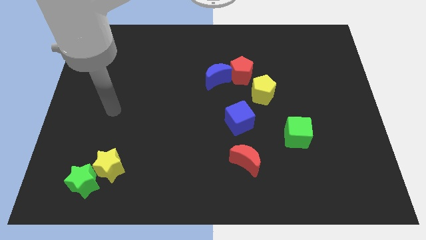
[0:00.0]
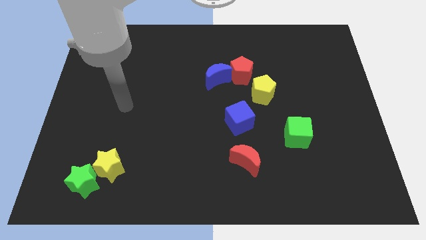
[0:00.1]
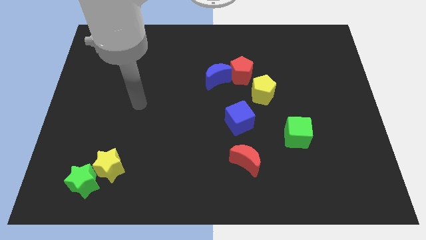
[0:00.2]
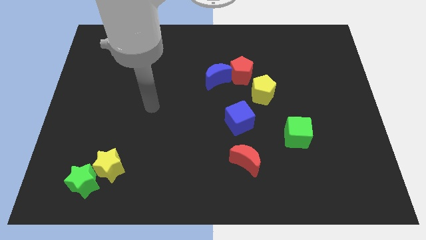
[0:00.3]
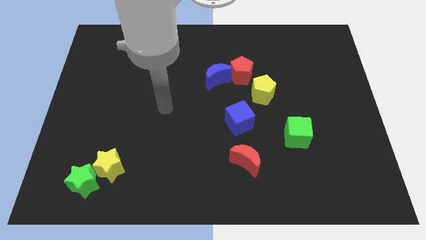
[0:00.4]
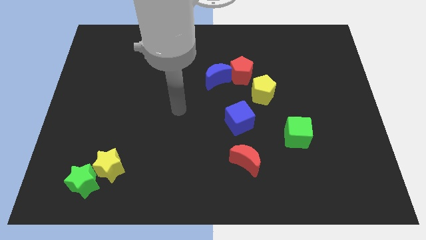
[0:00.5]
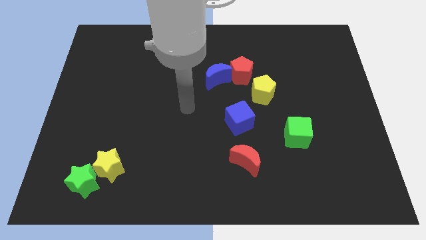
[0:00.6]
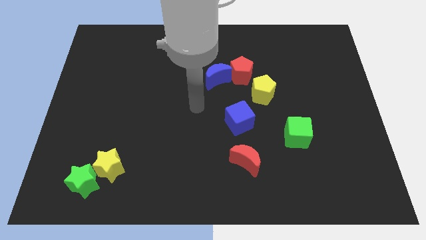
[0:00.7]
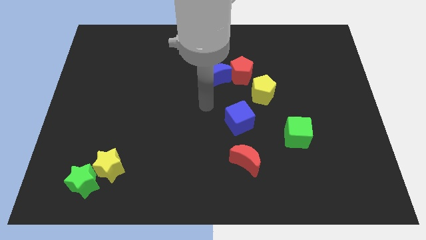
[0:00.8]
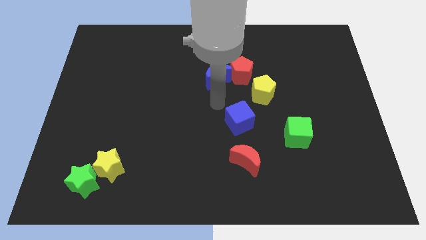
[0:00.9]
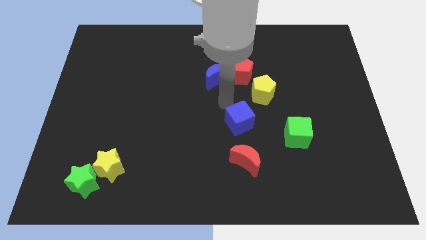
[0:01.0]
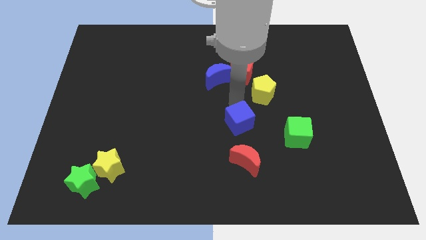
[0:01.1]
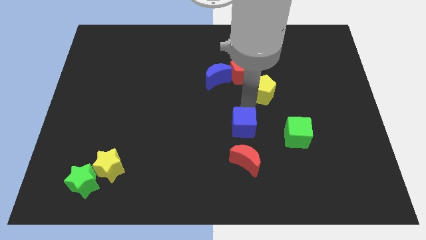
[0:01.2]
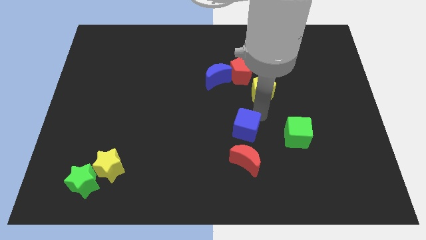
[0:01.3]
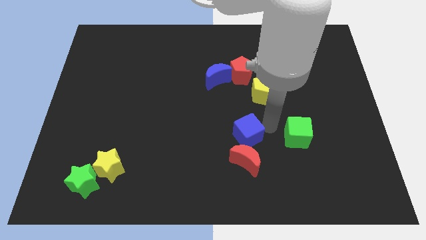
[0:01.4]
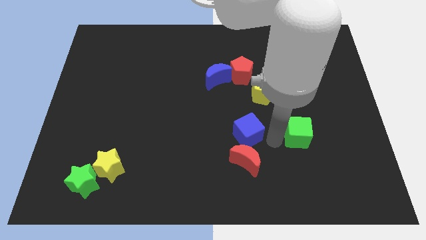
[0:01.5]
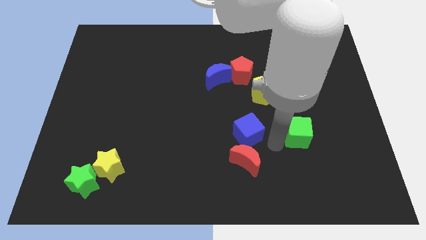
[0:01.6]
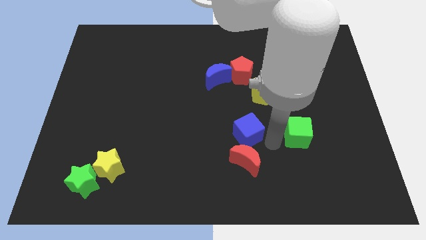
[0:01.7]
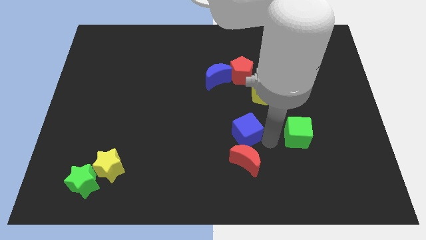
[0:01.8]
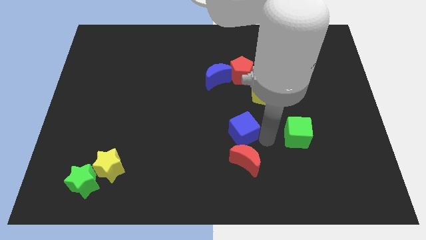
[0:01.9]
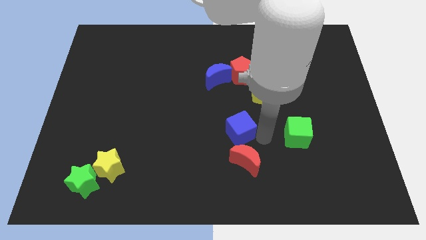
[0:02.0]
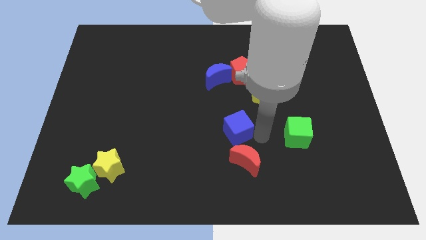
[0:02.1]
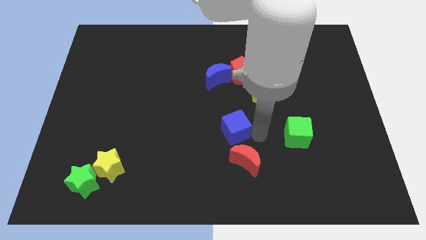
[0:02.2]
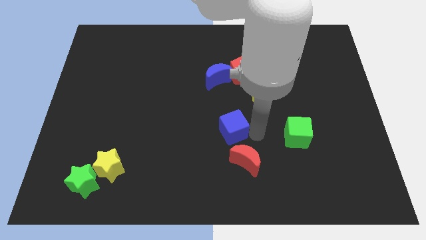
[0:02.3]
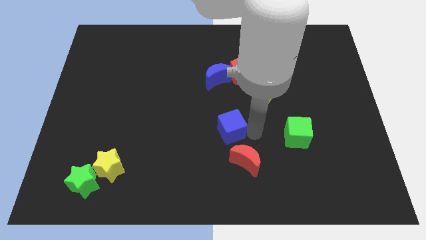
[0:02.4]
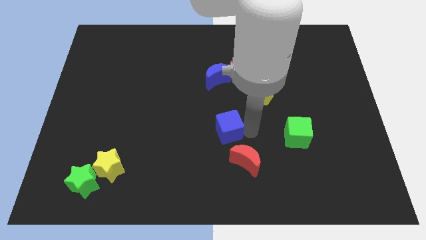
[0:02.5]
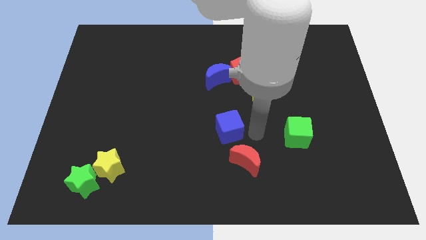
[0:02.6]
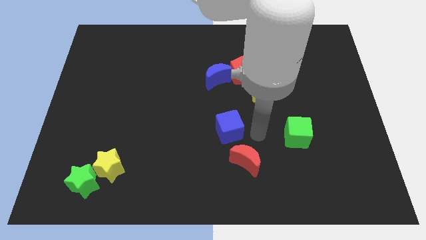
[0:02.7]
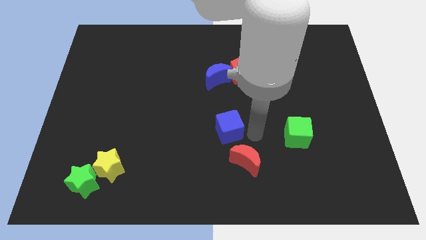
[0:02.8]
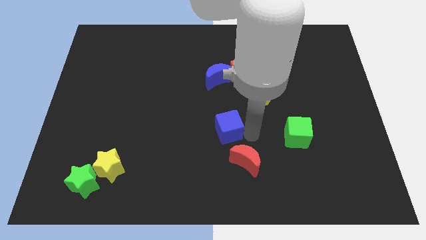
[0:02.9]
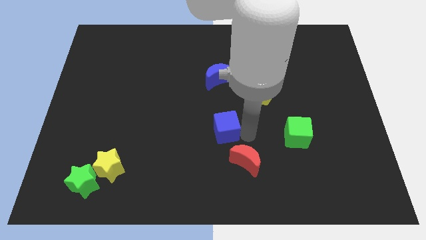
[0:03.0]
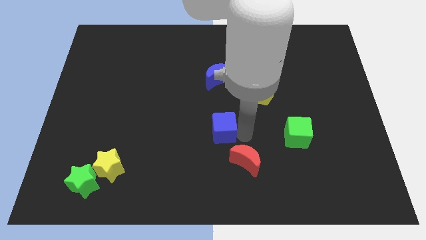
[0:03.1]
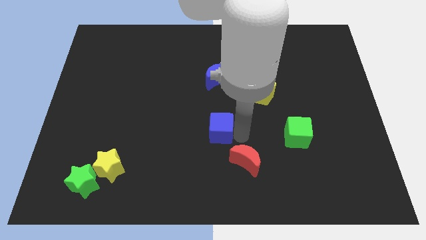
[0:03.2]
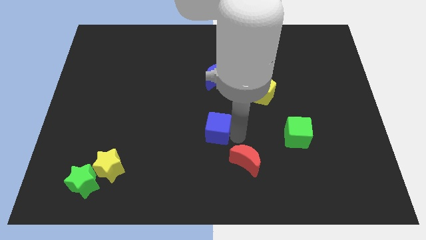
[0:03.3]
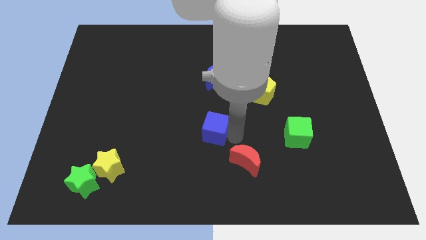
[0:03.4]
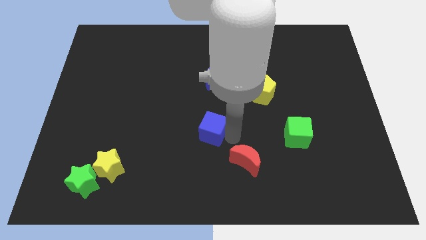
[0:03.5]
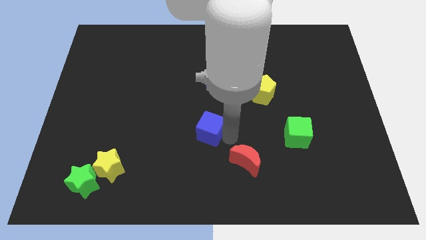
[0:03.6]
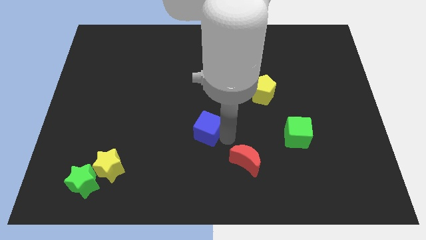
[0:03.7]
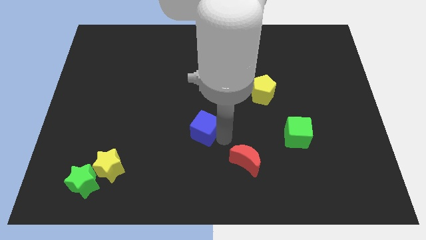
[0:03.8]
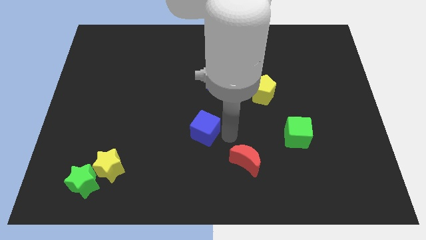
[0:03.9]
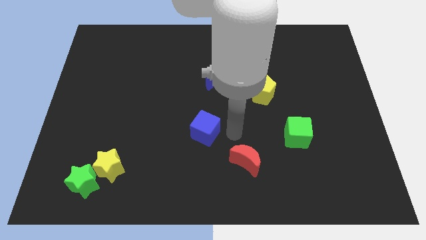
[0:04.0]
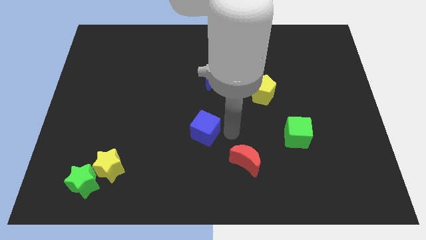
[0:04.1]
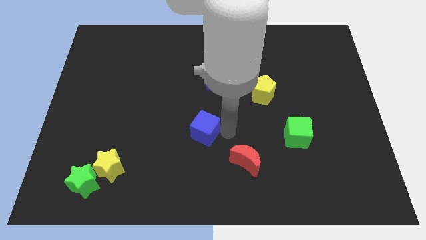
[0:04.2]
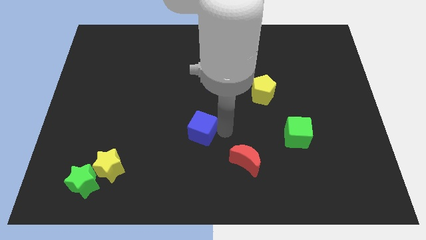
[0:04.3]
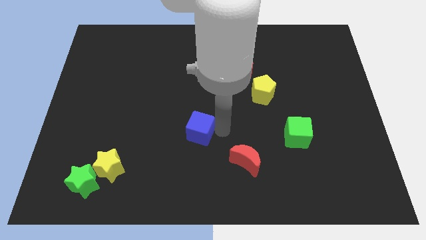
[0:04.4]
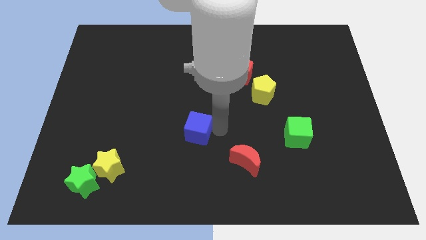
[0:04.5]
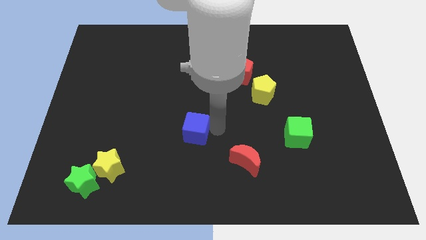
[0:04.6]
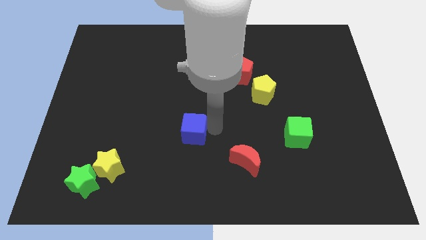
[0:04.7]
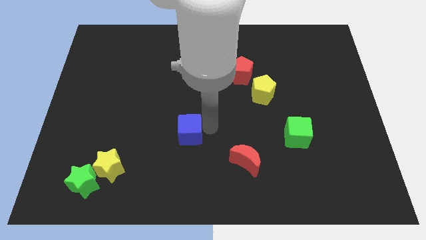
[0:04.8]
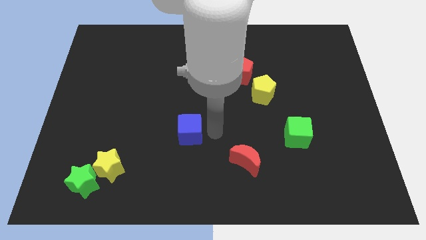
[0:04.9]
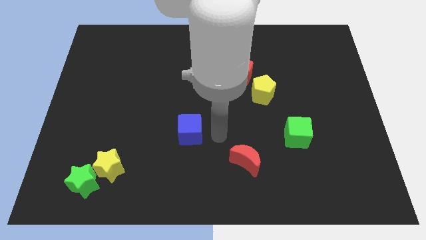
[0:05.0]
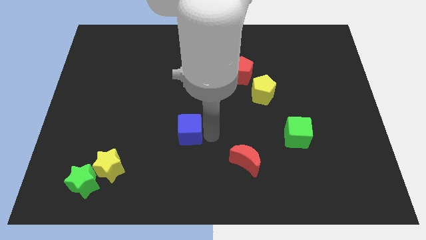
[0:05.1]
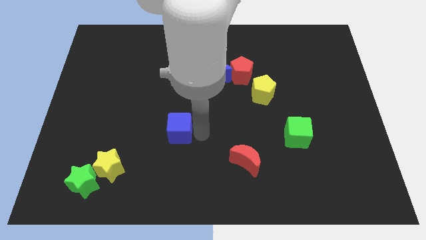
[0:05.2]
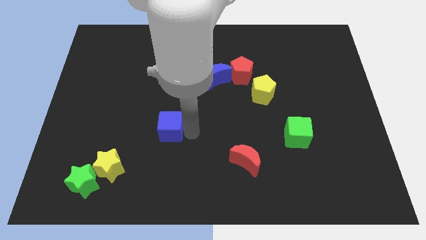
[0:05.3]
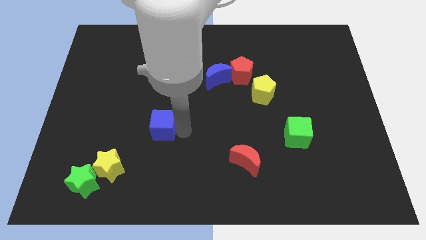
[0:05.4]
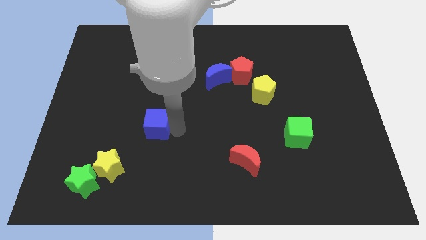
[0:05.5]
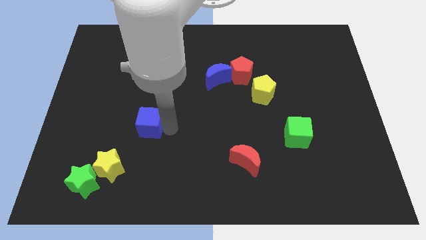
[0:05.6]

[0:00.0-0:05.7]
move the blue cube left

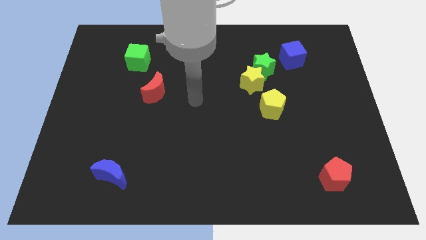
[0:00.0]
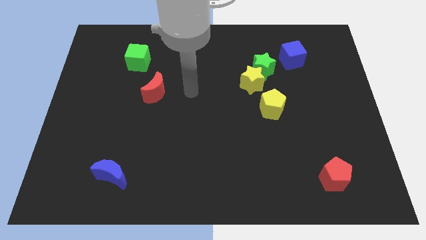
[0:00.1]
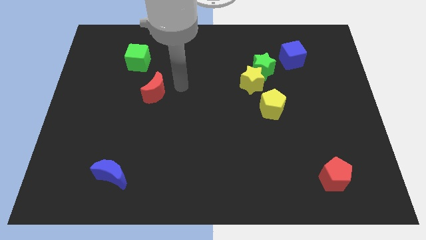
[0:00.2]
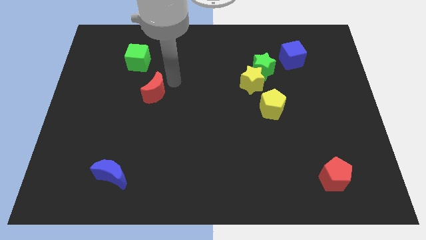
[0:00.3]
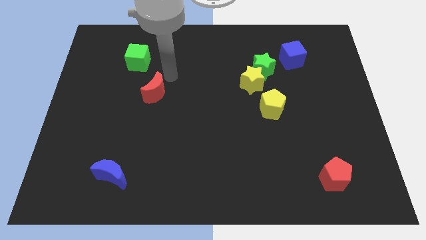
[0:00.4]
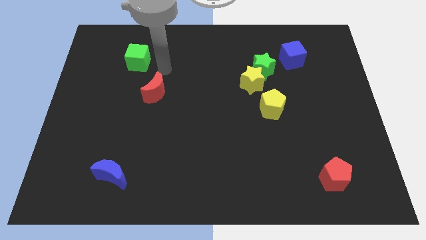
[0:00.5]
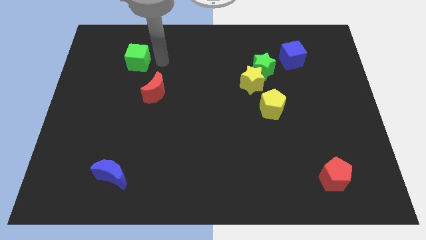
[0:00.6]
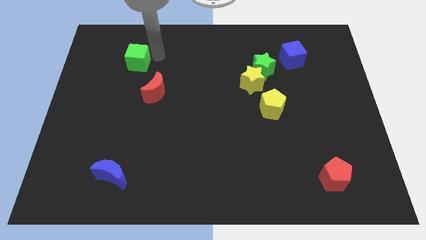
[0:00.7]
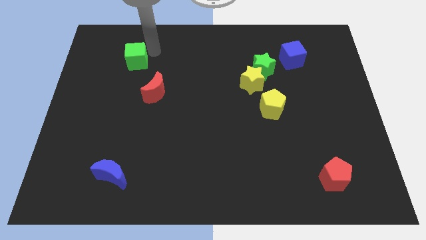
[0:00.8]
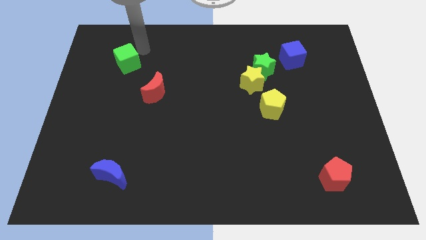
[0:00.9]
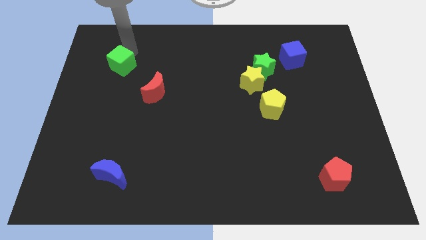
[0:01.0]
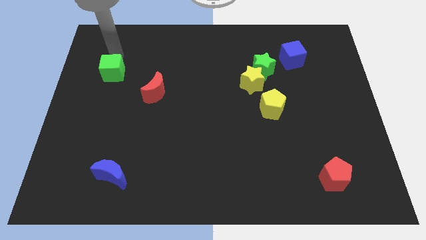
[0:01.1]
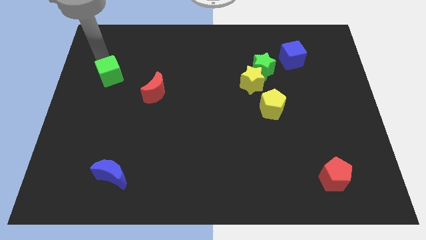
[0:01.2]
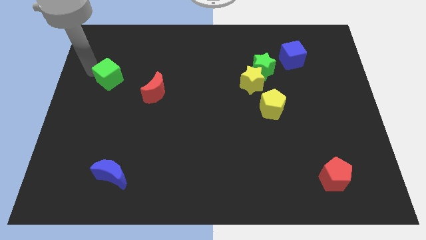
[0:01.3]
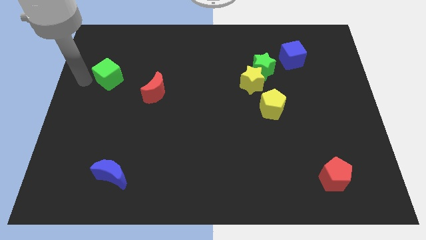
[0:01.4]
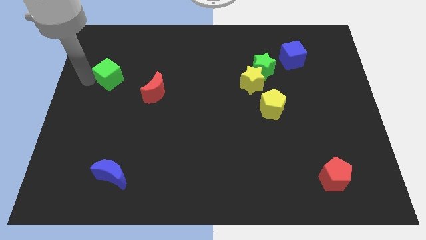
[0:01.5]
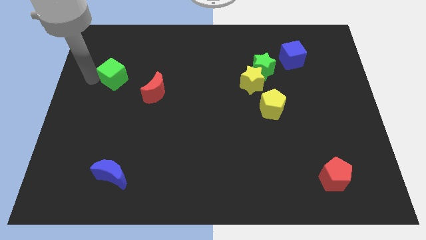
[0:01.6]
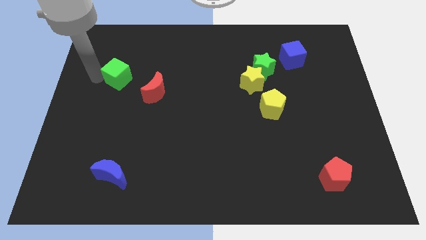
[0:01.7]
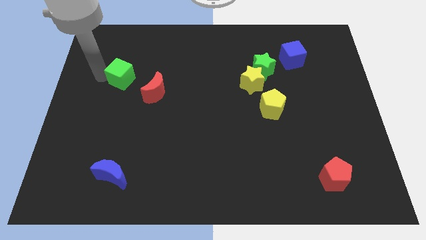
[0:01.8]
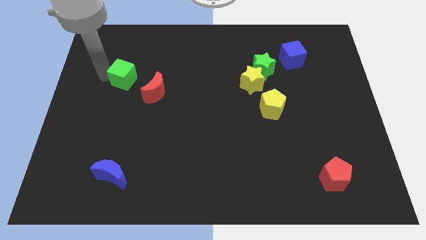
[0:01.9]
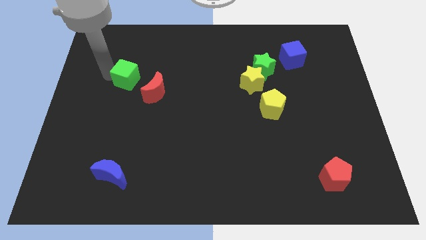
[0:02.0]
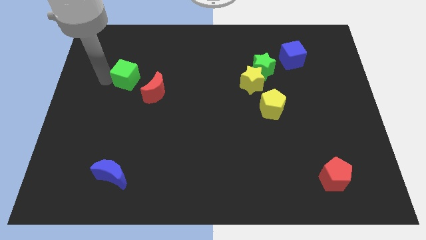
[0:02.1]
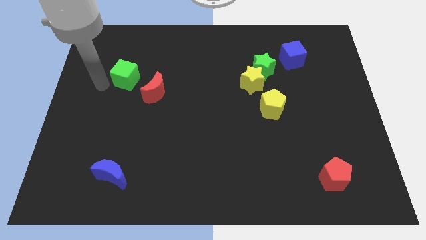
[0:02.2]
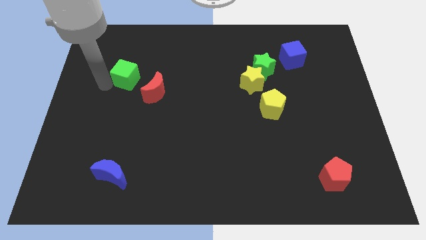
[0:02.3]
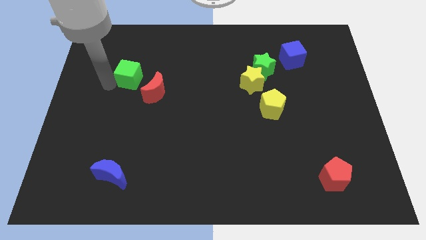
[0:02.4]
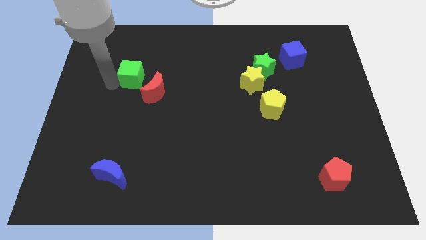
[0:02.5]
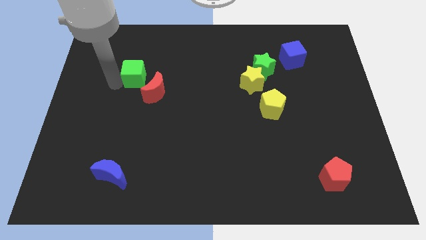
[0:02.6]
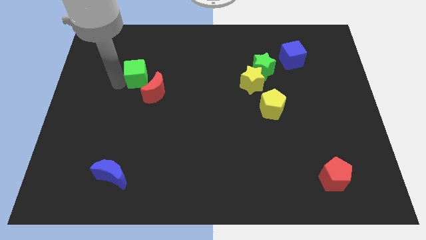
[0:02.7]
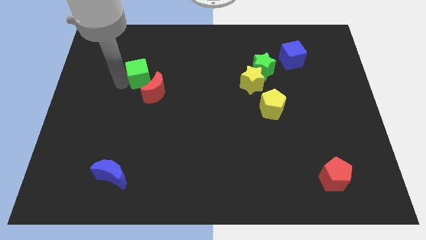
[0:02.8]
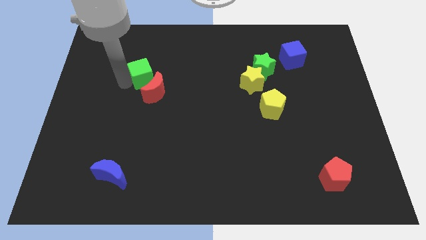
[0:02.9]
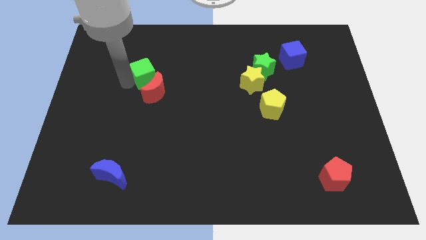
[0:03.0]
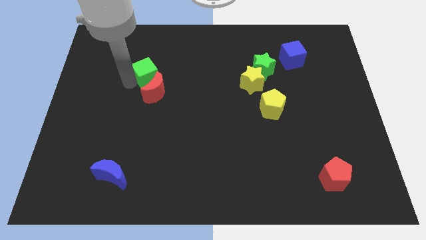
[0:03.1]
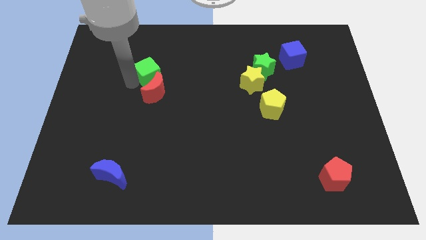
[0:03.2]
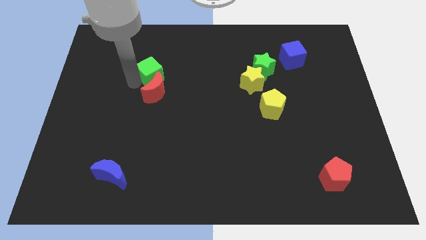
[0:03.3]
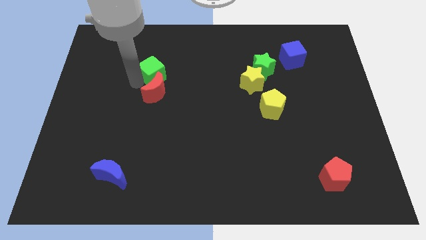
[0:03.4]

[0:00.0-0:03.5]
move the green cube diagonally downwards and to the right a bit
